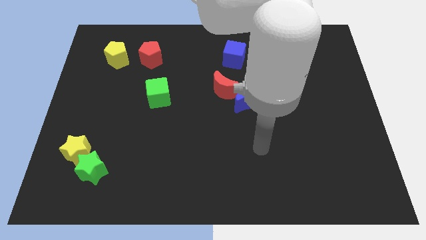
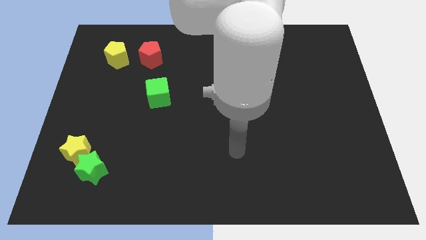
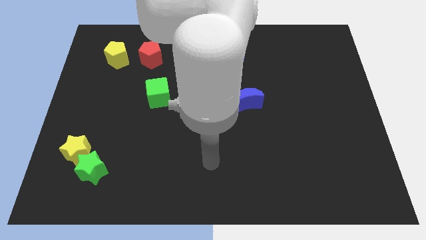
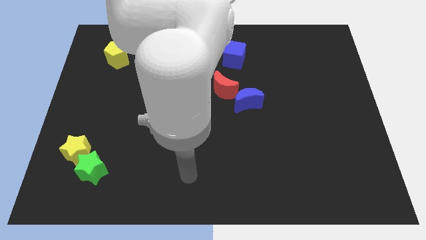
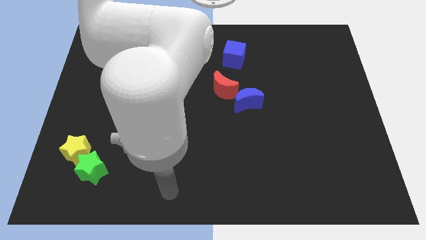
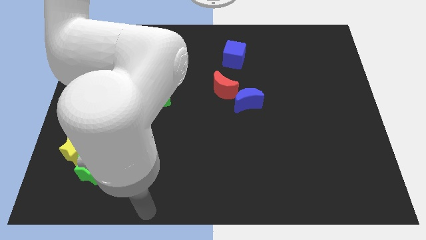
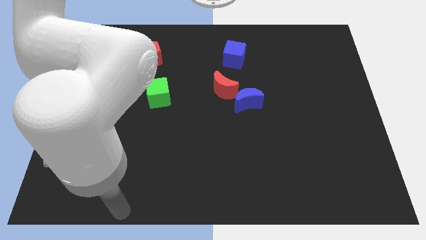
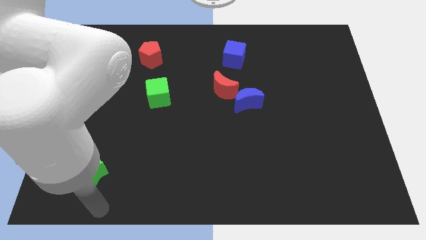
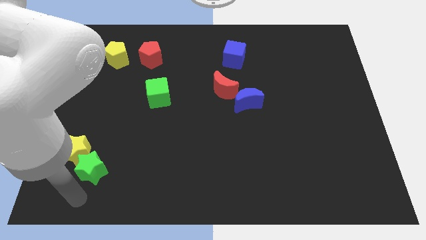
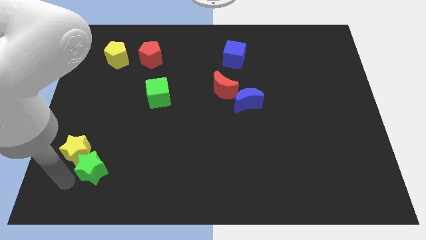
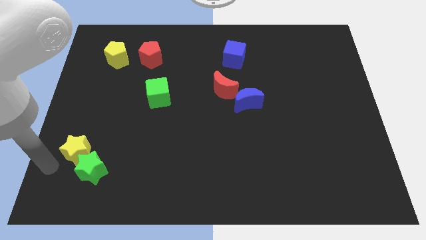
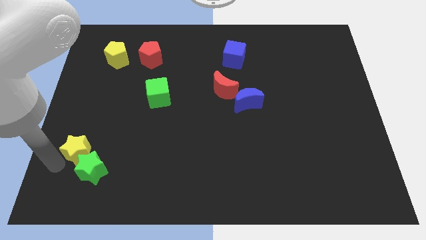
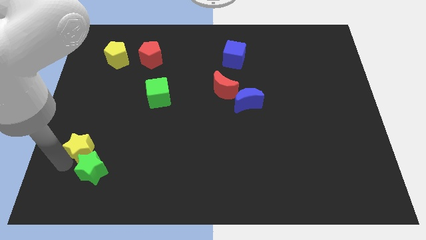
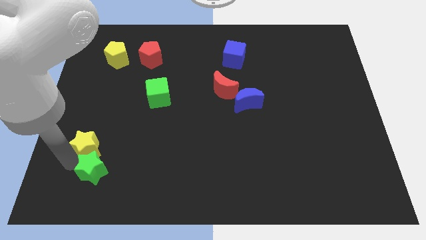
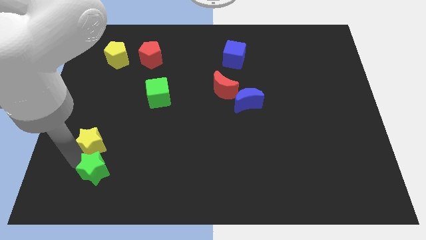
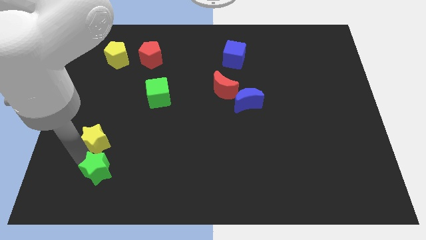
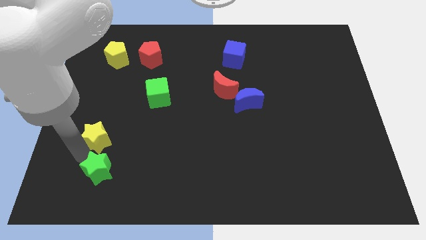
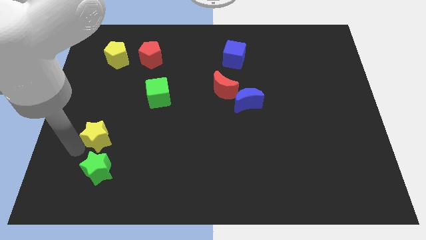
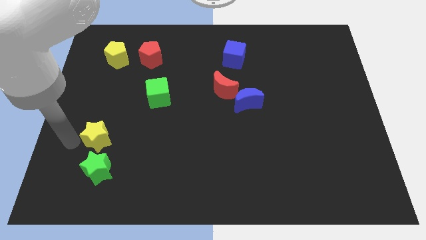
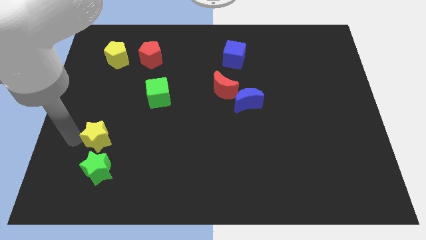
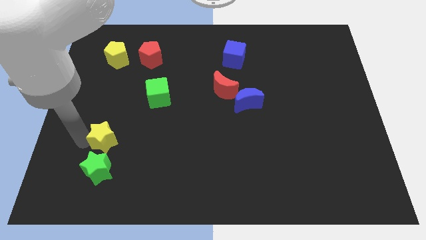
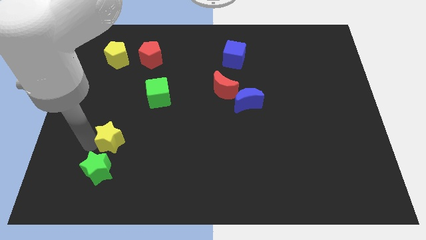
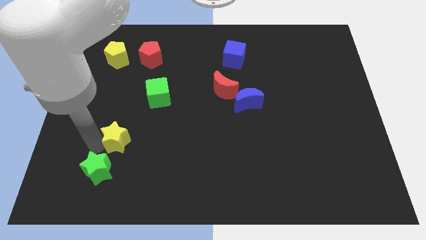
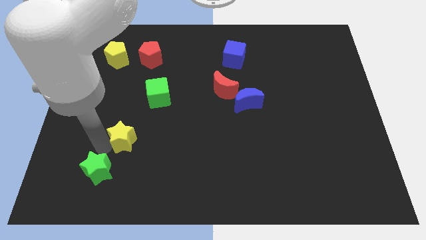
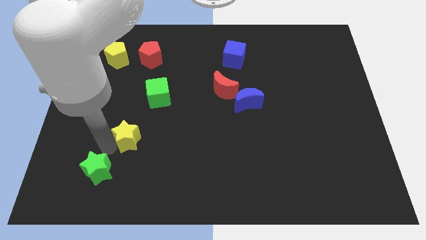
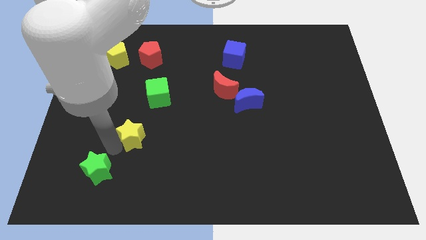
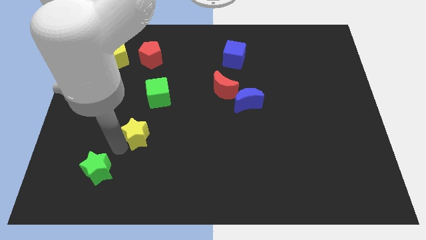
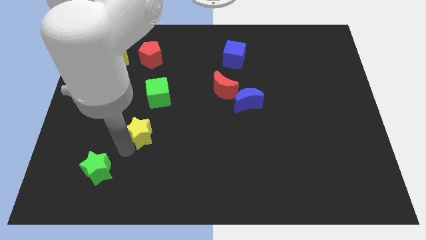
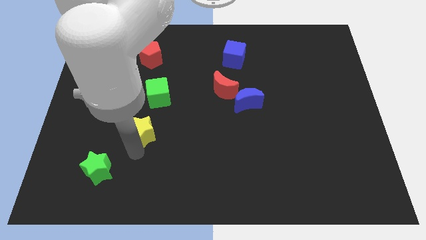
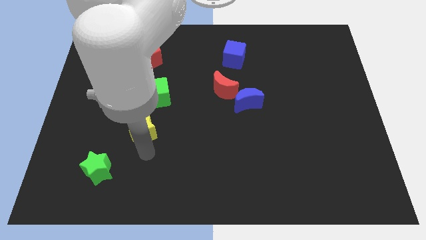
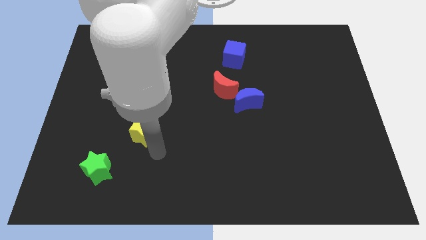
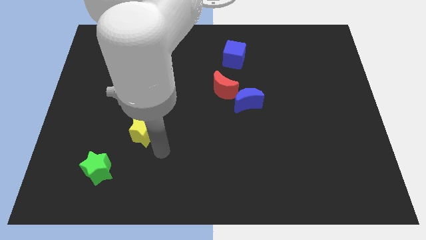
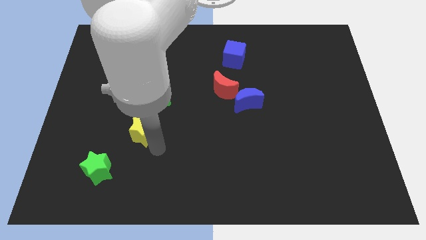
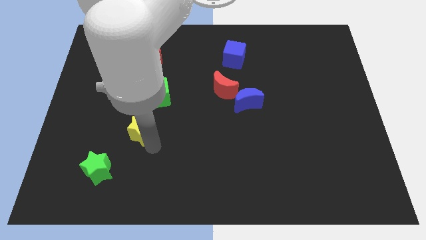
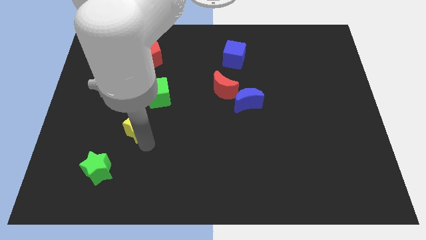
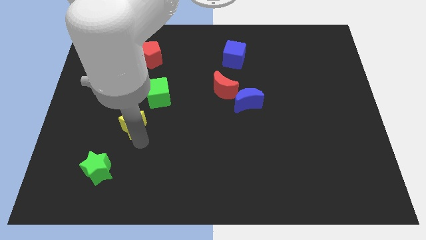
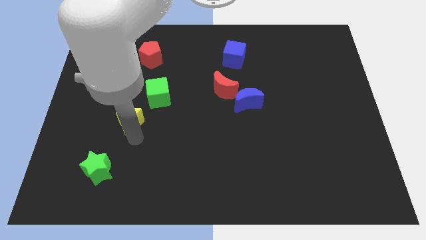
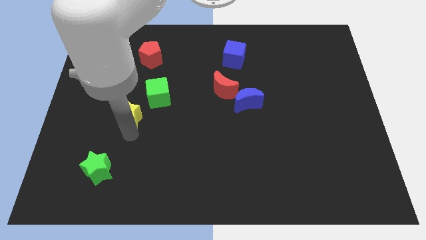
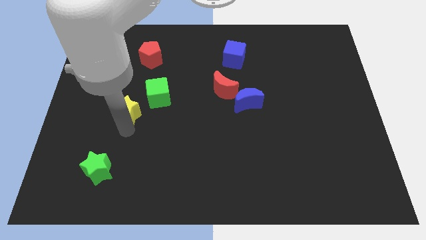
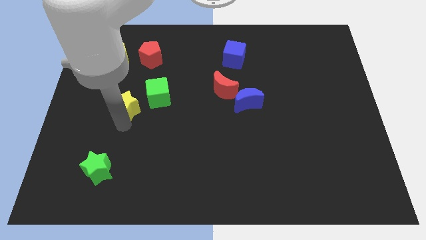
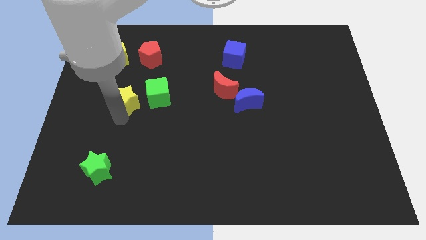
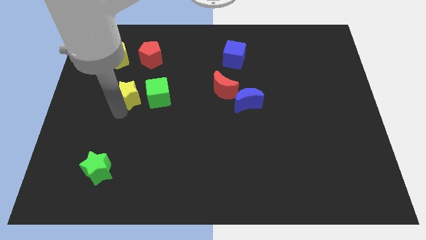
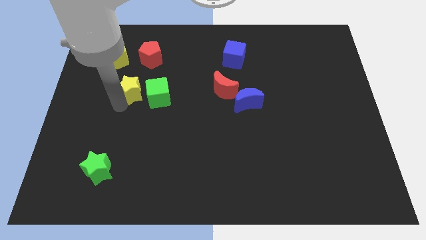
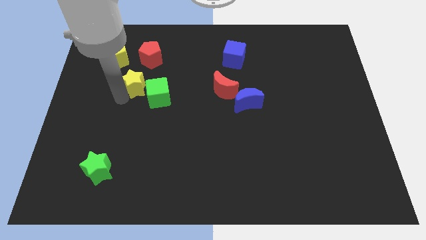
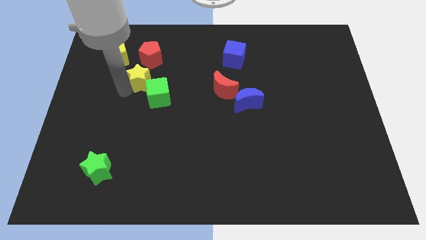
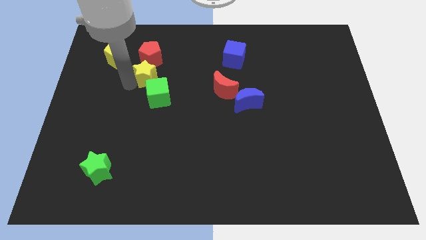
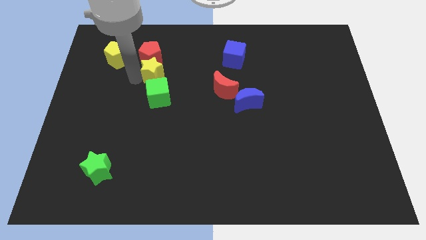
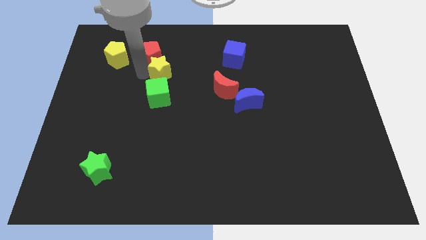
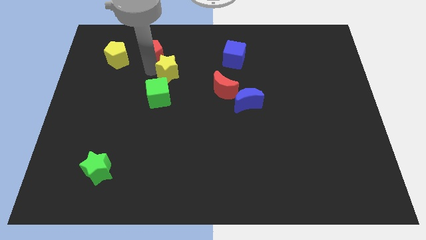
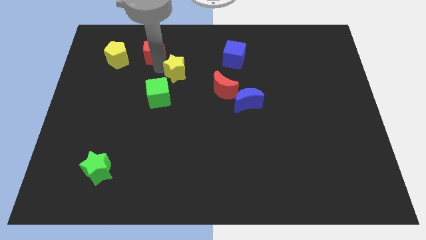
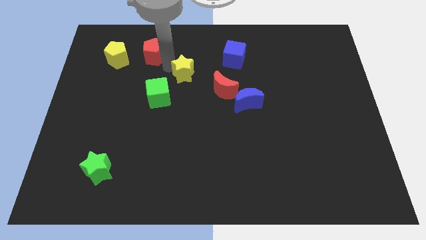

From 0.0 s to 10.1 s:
push the yellow star diagonally up and to the left of the red moon

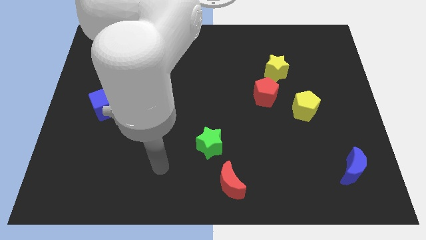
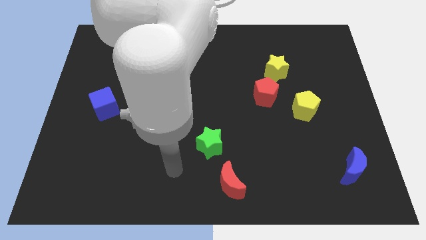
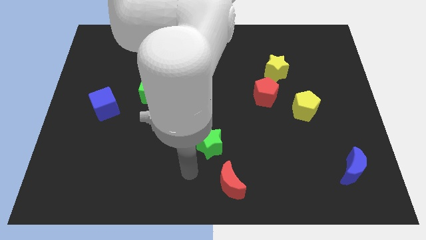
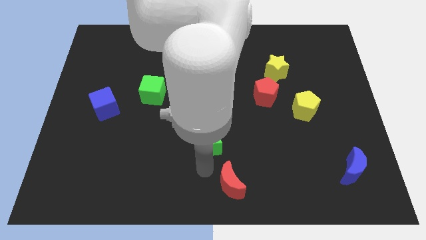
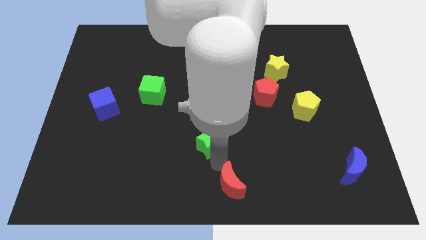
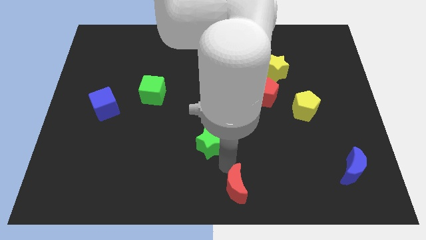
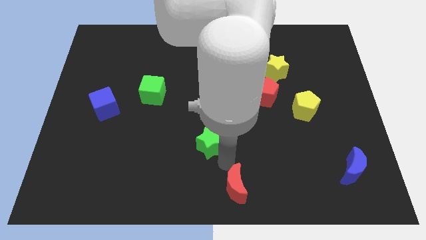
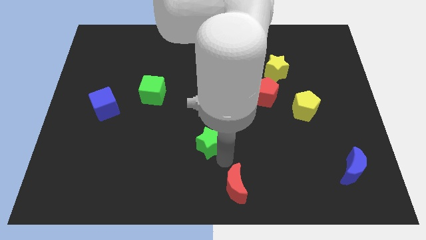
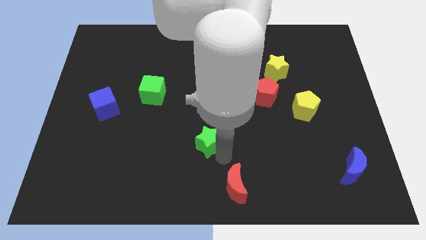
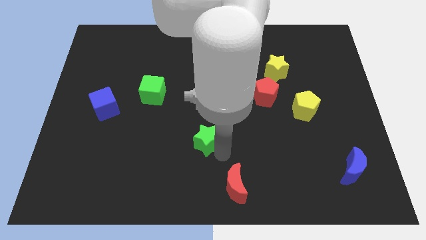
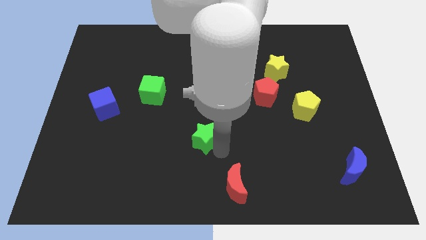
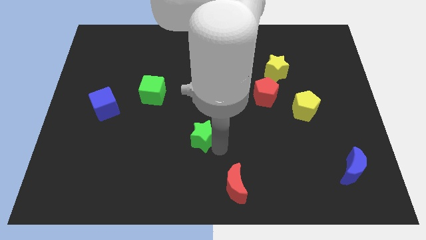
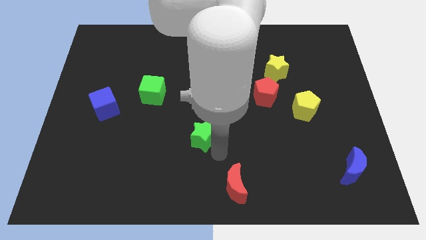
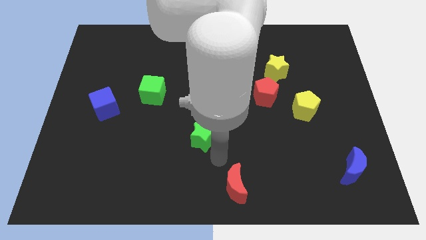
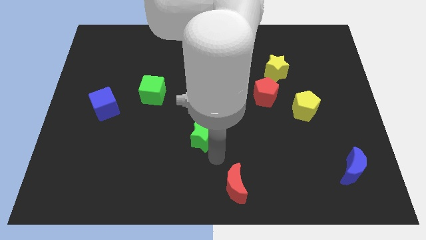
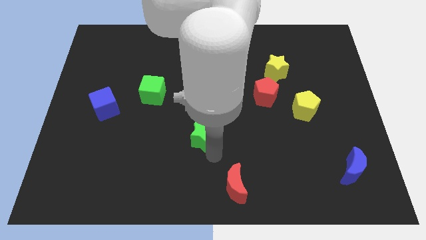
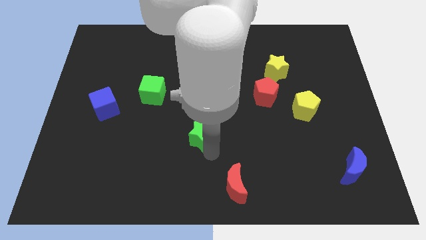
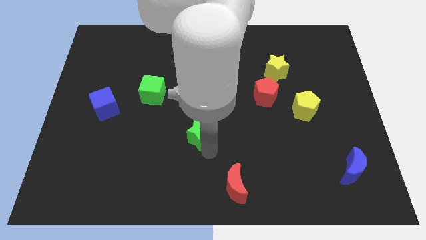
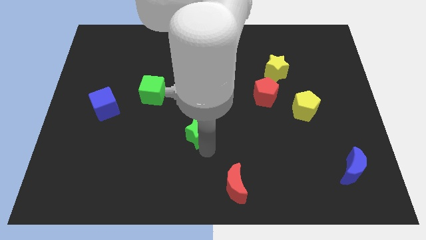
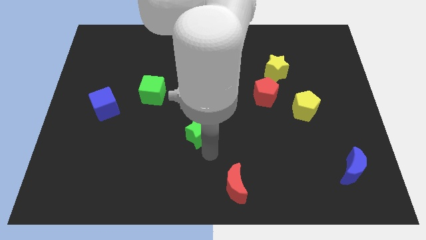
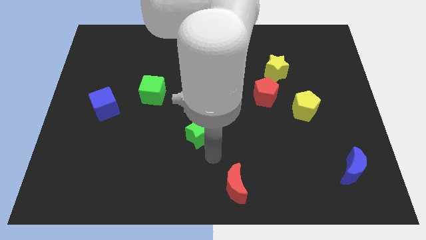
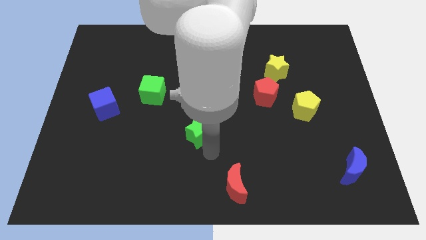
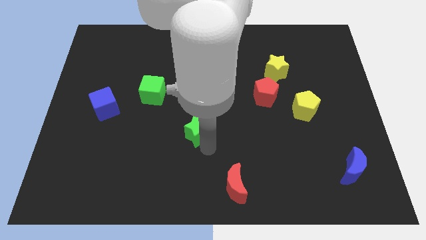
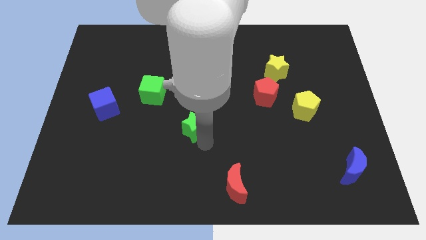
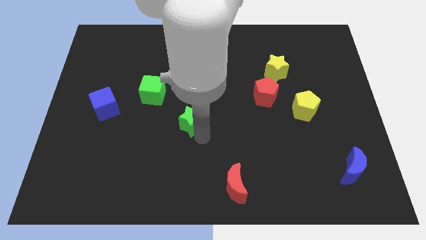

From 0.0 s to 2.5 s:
move the green star diagonally down and to the right of the green cube
